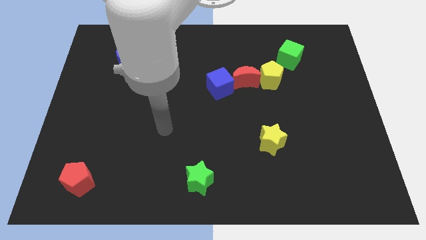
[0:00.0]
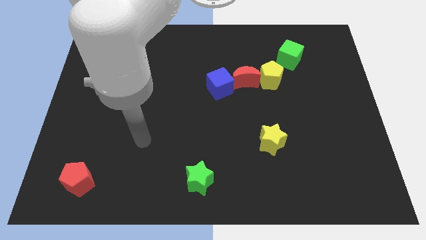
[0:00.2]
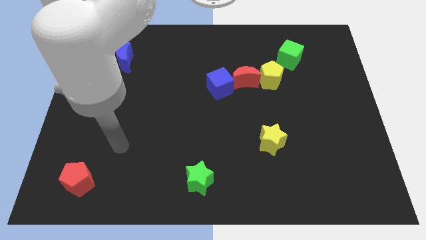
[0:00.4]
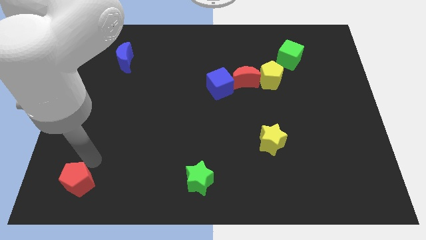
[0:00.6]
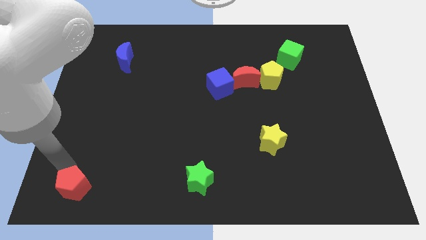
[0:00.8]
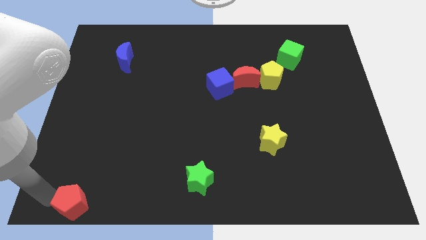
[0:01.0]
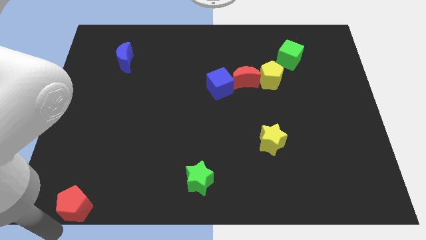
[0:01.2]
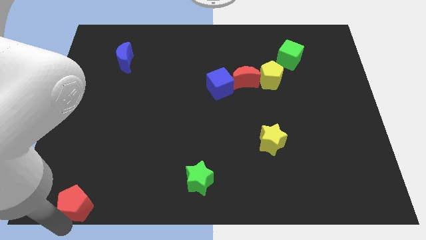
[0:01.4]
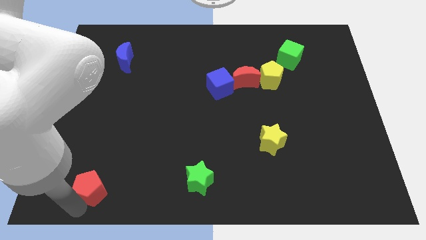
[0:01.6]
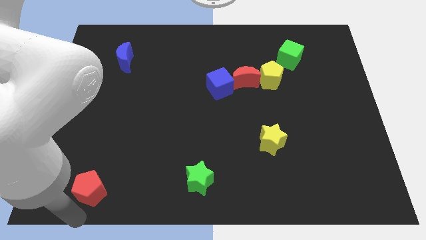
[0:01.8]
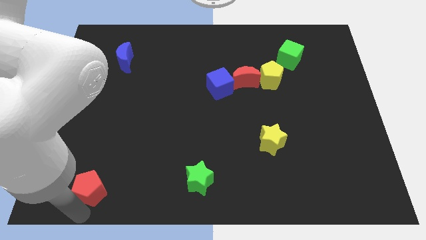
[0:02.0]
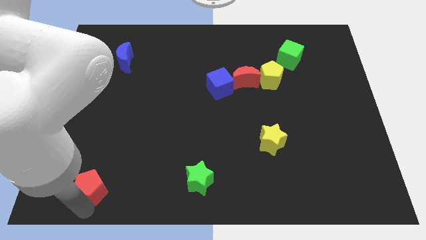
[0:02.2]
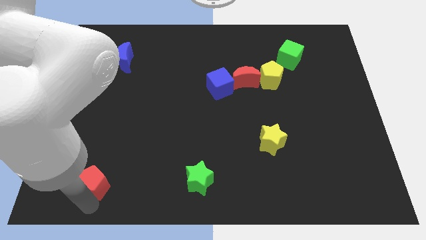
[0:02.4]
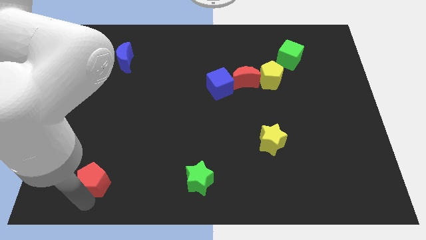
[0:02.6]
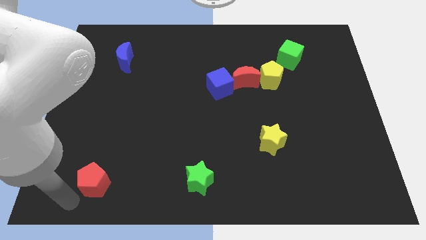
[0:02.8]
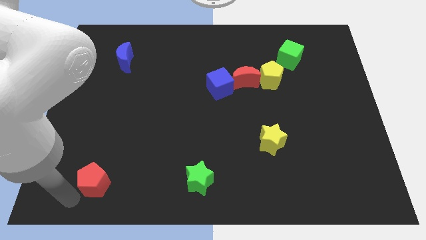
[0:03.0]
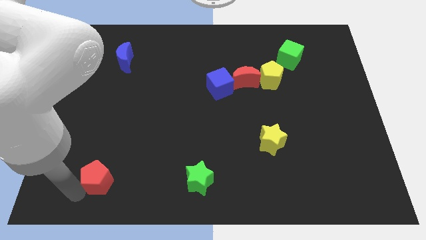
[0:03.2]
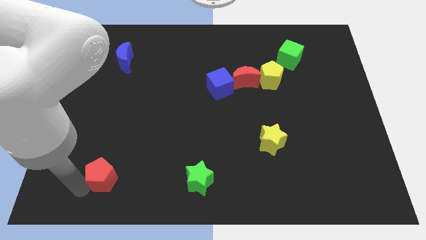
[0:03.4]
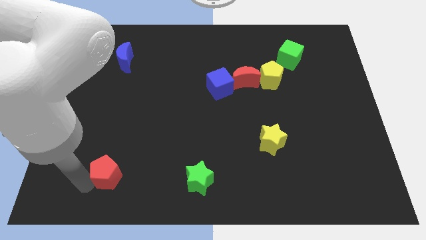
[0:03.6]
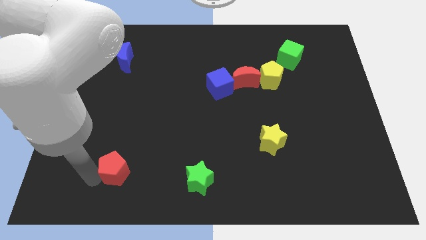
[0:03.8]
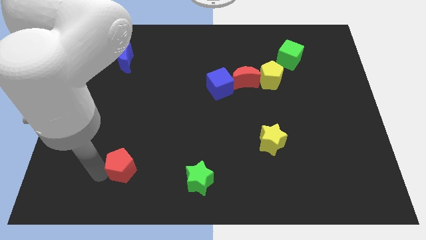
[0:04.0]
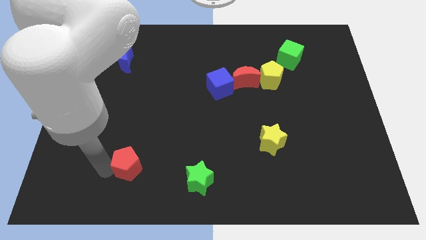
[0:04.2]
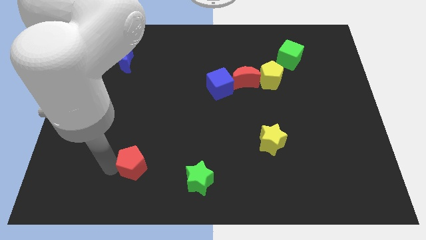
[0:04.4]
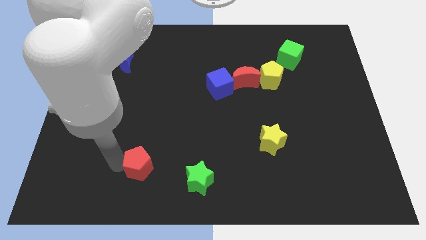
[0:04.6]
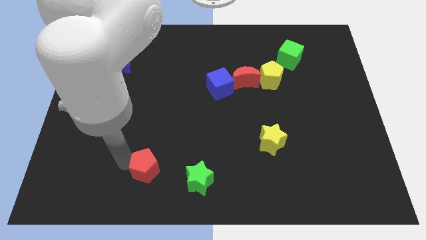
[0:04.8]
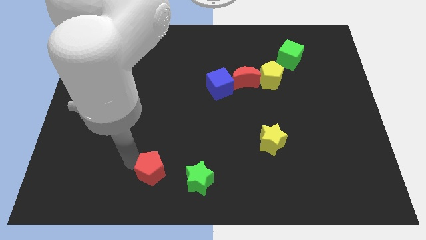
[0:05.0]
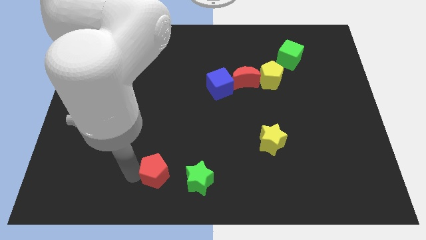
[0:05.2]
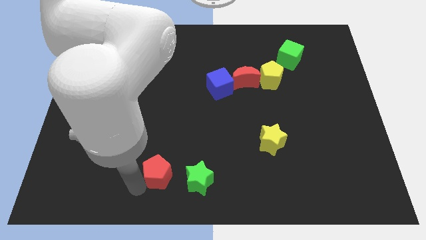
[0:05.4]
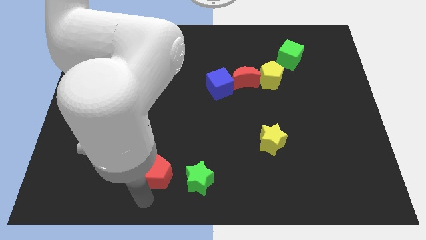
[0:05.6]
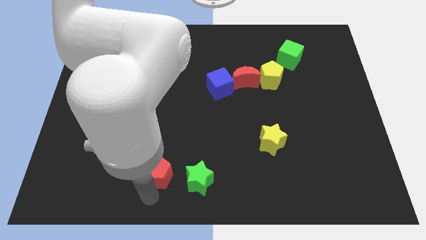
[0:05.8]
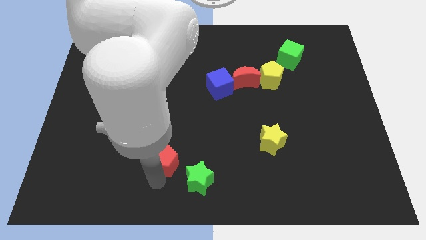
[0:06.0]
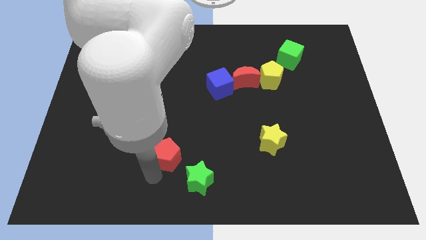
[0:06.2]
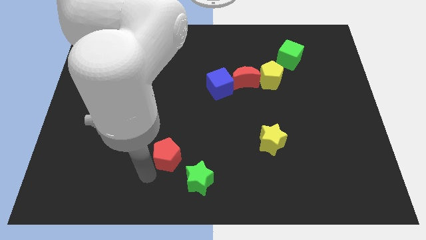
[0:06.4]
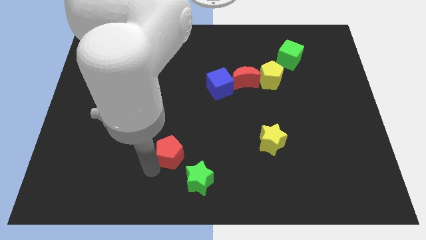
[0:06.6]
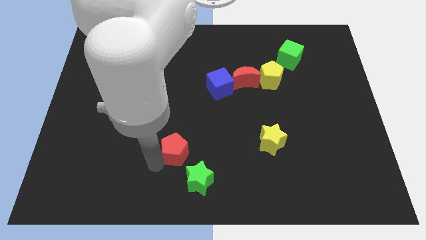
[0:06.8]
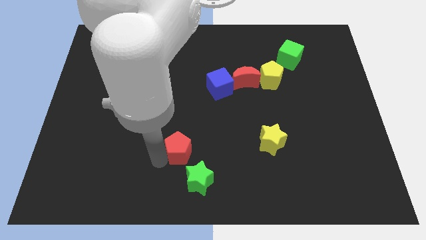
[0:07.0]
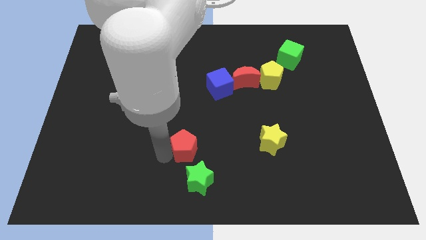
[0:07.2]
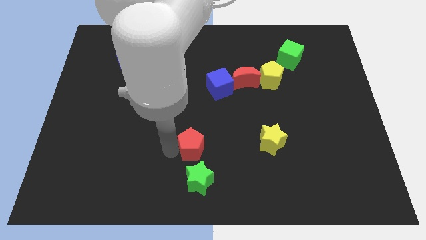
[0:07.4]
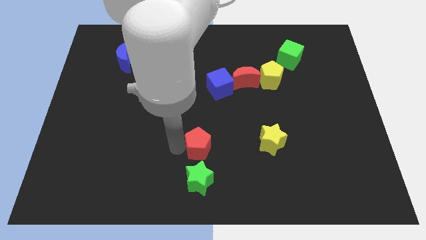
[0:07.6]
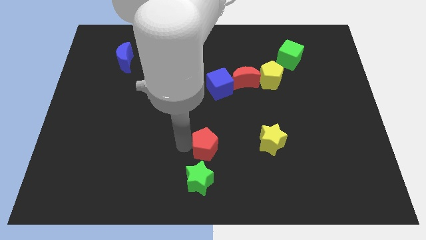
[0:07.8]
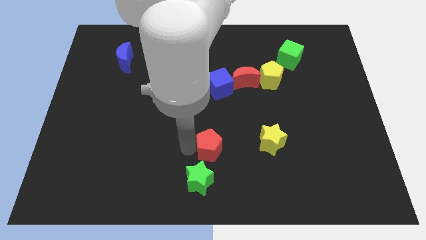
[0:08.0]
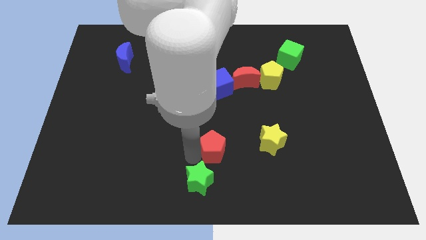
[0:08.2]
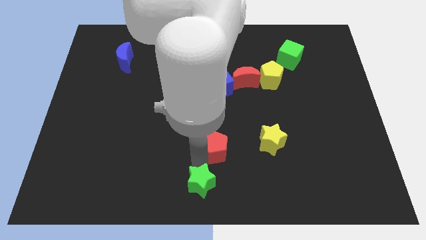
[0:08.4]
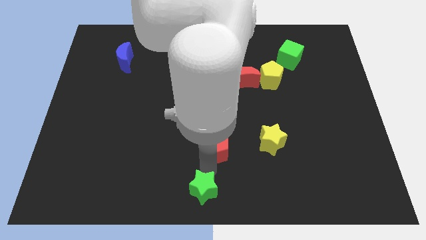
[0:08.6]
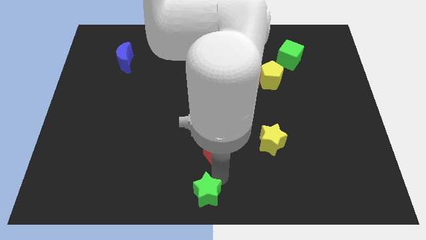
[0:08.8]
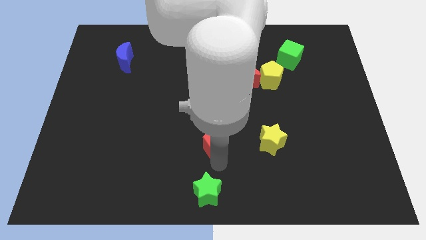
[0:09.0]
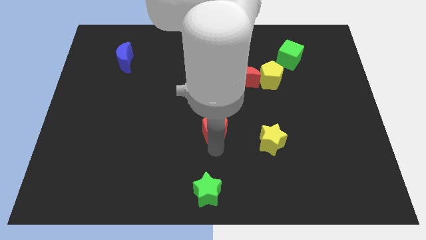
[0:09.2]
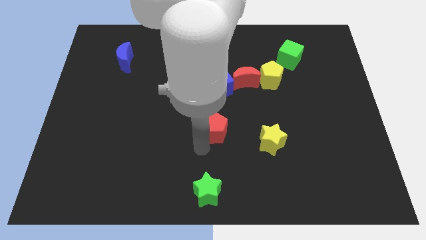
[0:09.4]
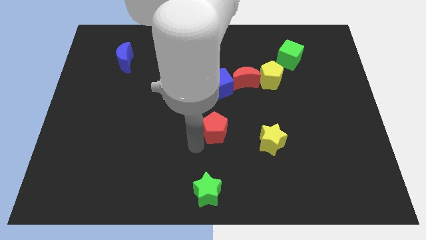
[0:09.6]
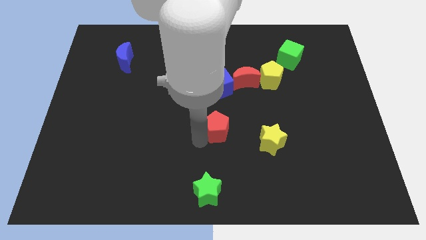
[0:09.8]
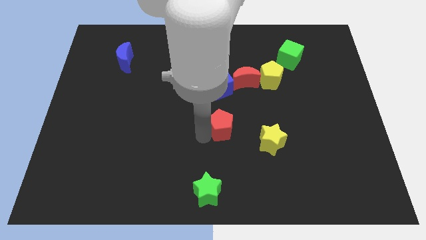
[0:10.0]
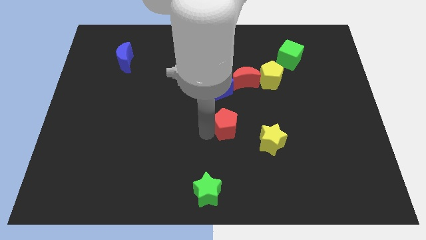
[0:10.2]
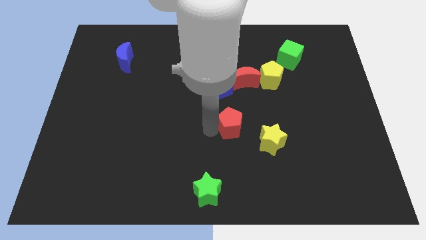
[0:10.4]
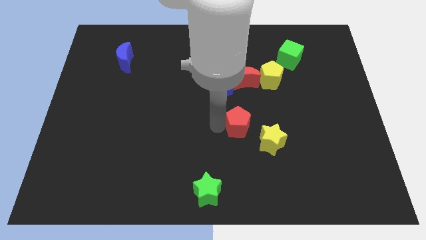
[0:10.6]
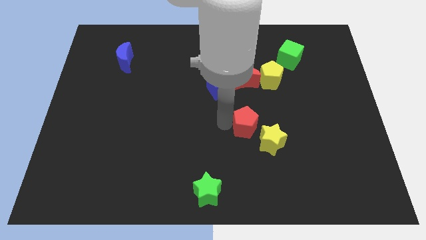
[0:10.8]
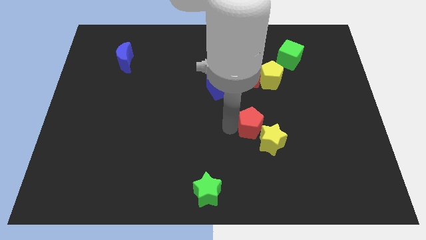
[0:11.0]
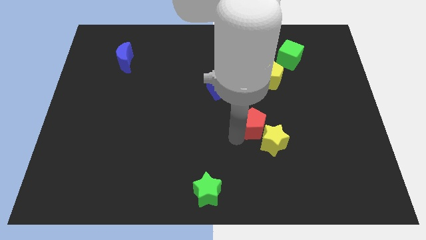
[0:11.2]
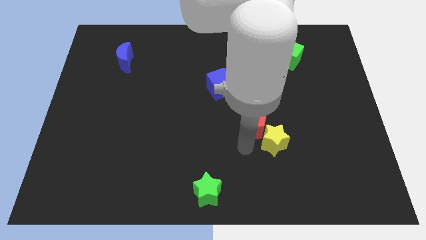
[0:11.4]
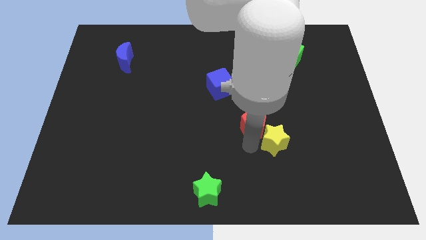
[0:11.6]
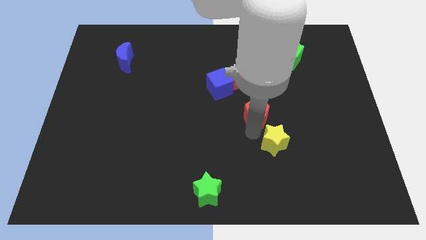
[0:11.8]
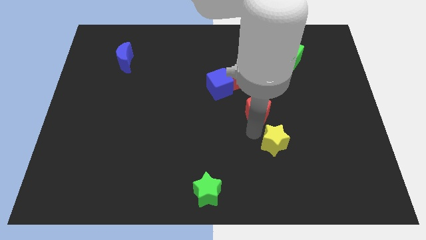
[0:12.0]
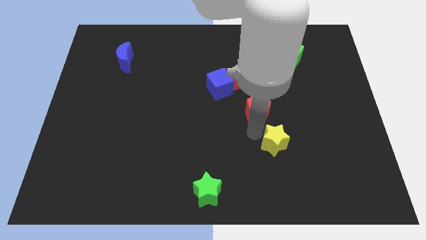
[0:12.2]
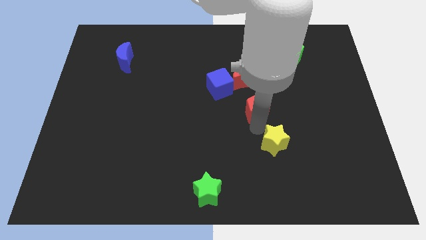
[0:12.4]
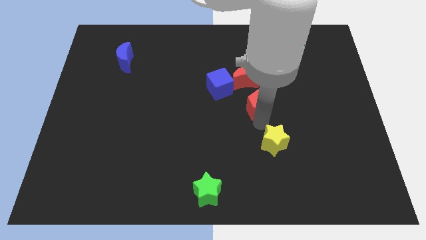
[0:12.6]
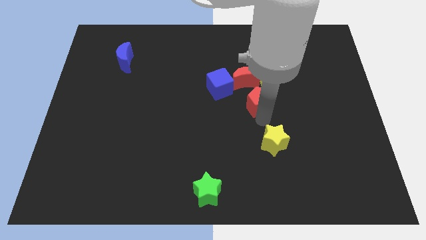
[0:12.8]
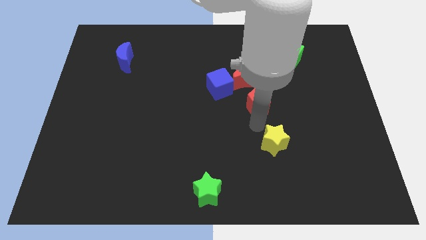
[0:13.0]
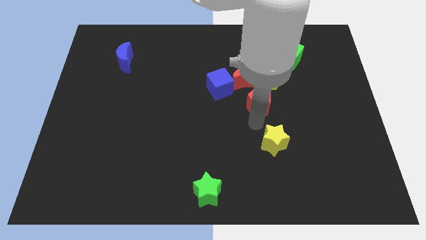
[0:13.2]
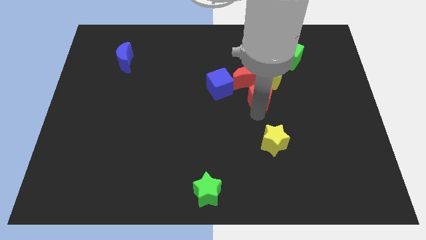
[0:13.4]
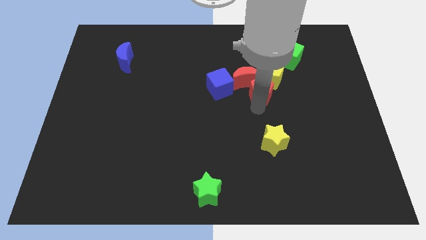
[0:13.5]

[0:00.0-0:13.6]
put the red pentagon towards the yellow pentagon
